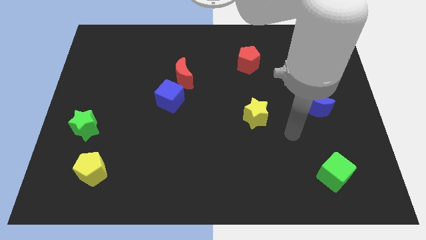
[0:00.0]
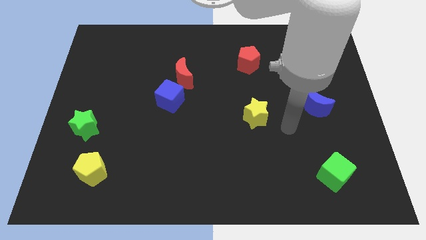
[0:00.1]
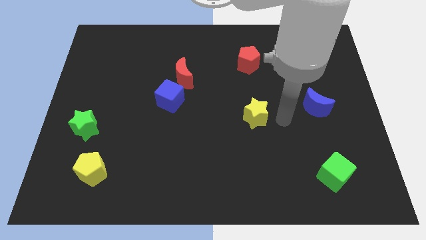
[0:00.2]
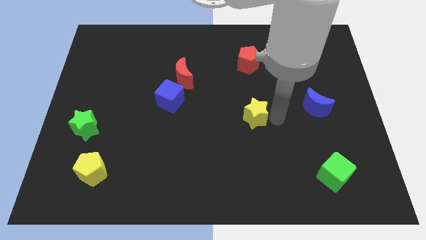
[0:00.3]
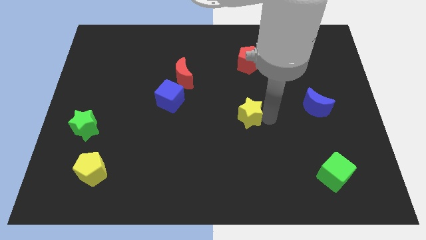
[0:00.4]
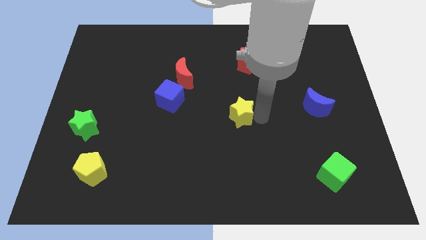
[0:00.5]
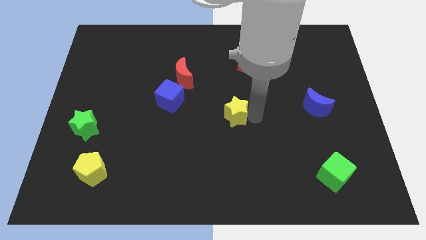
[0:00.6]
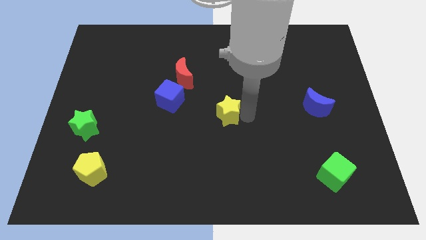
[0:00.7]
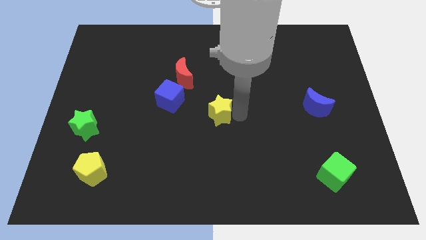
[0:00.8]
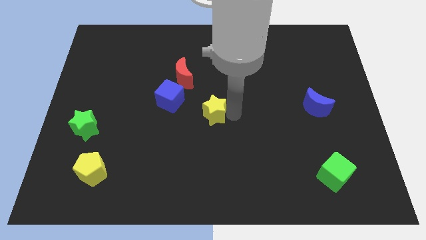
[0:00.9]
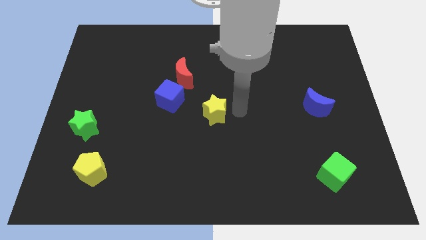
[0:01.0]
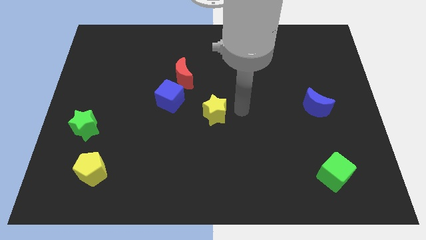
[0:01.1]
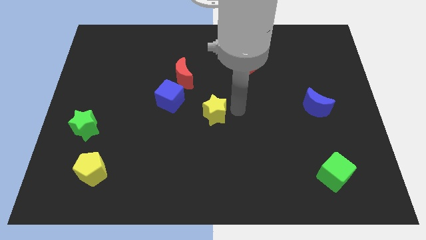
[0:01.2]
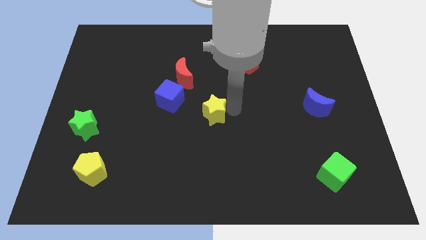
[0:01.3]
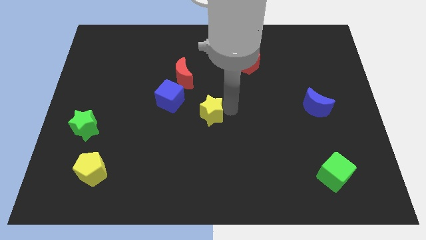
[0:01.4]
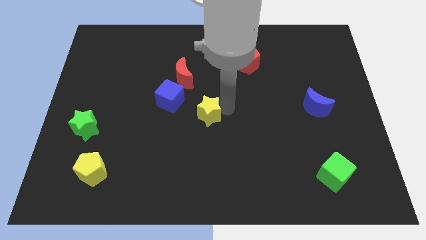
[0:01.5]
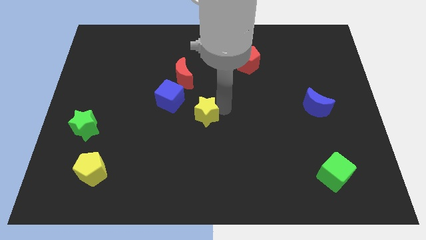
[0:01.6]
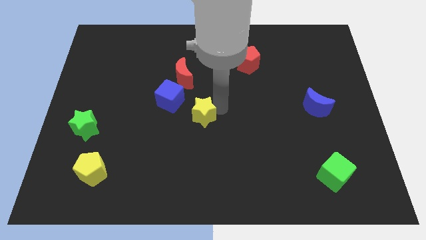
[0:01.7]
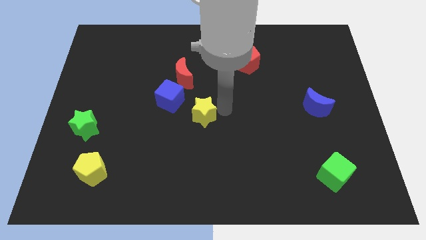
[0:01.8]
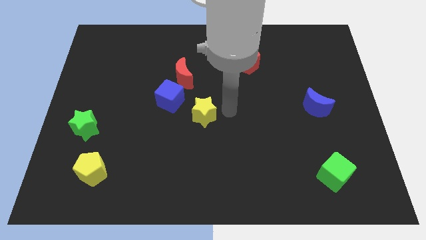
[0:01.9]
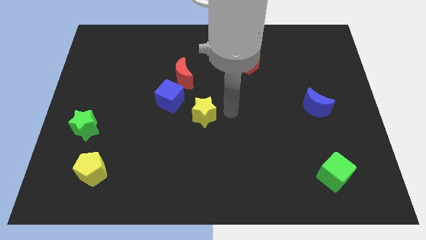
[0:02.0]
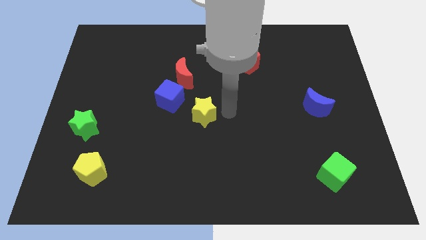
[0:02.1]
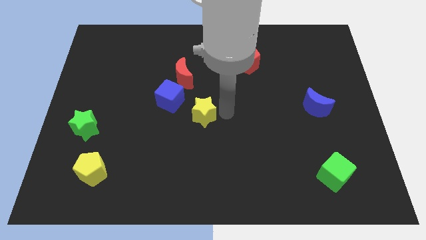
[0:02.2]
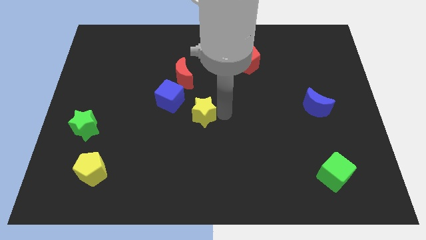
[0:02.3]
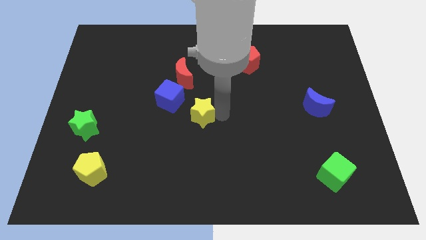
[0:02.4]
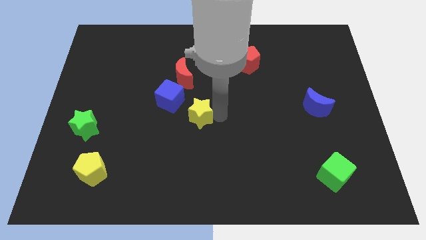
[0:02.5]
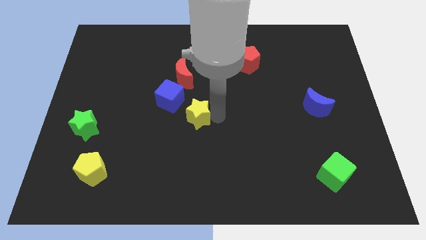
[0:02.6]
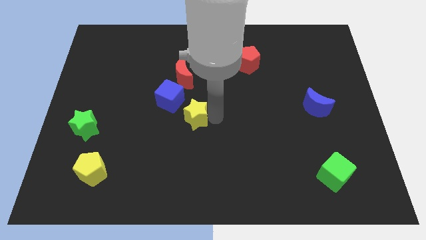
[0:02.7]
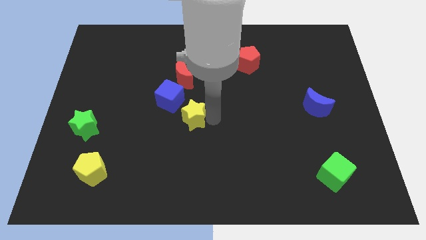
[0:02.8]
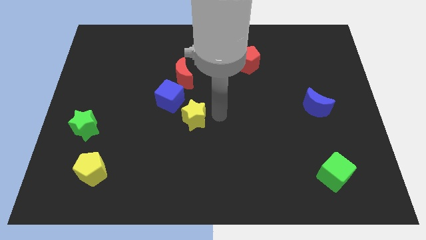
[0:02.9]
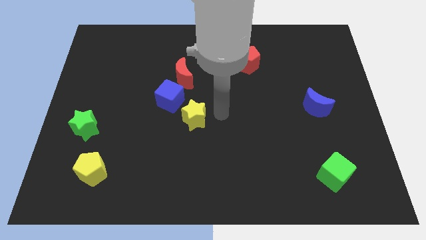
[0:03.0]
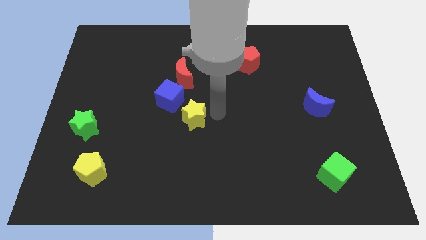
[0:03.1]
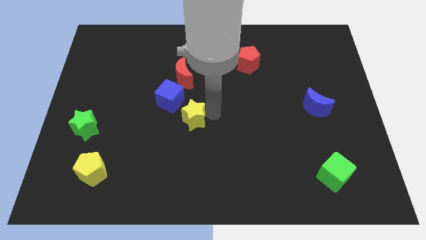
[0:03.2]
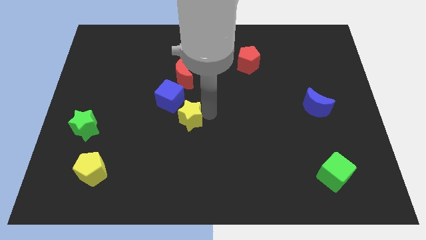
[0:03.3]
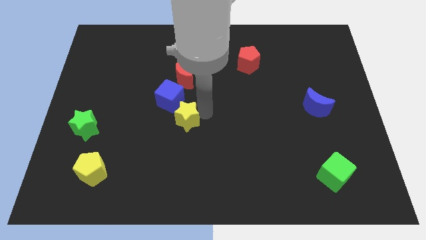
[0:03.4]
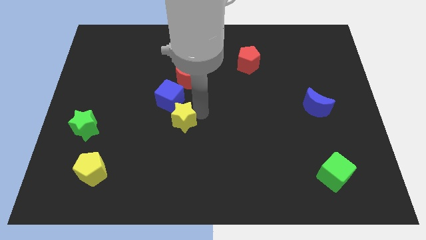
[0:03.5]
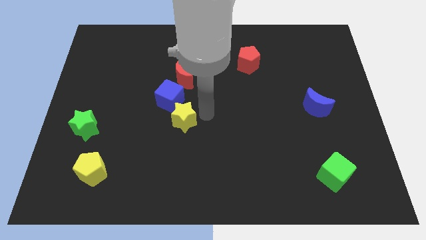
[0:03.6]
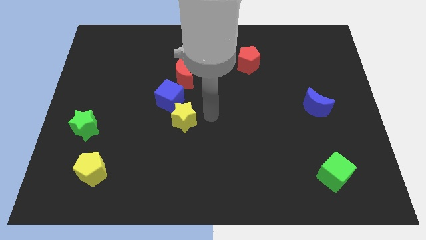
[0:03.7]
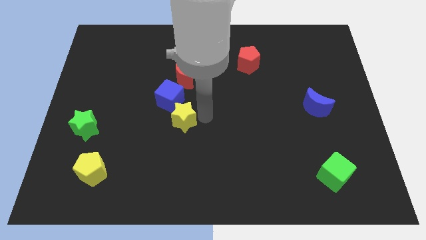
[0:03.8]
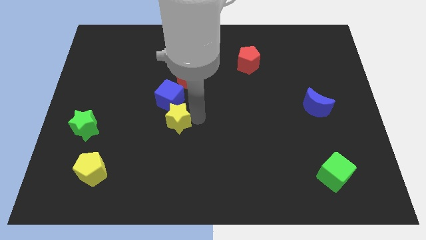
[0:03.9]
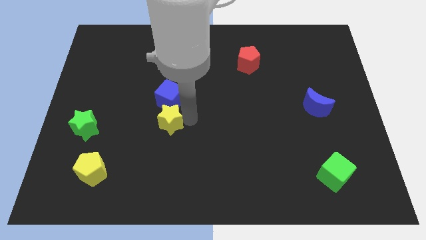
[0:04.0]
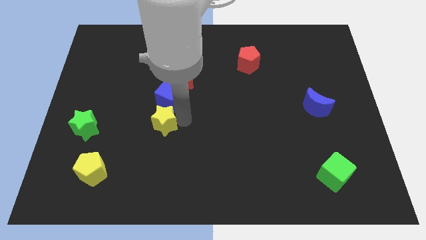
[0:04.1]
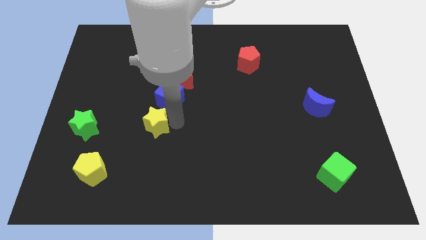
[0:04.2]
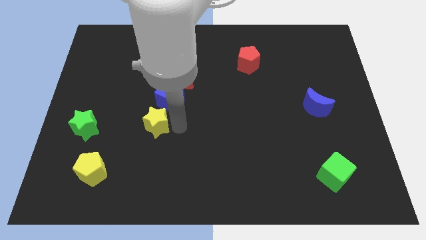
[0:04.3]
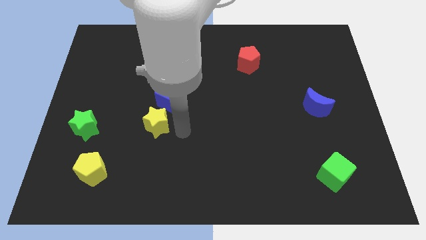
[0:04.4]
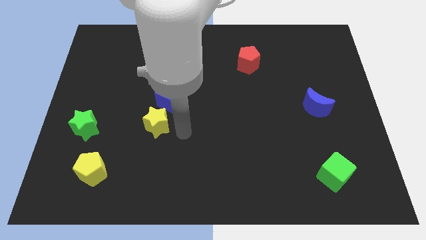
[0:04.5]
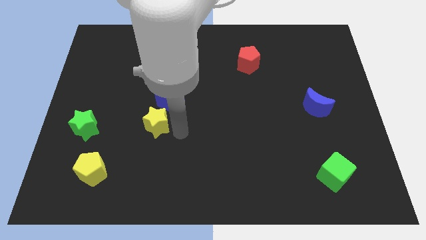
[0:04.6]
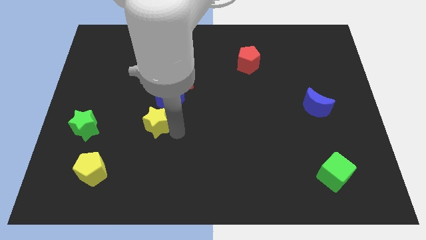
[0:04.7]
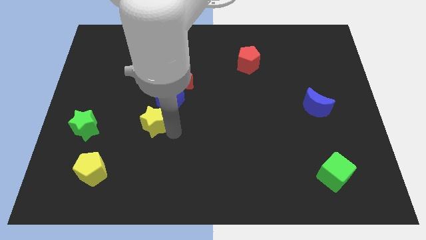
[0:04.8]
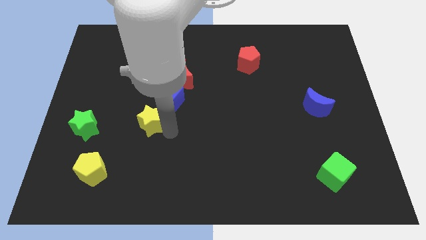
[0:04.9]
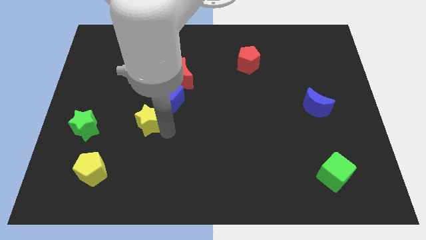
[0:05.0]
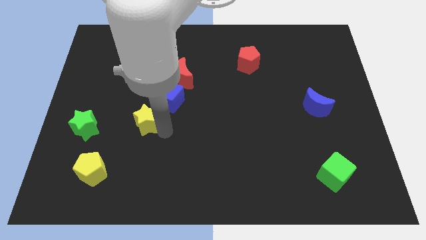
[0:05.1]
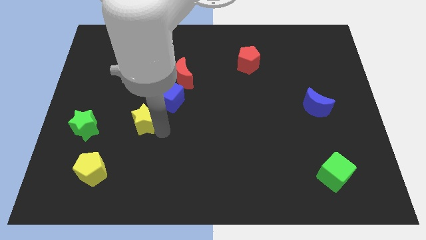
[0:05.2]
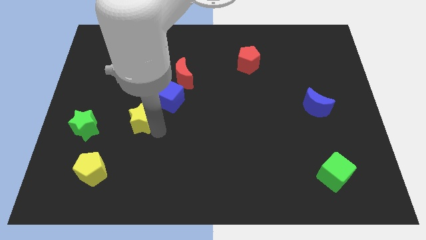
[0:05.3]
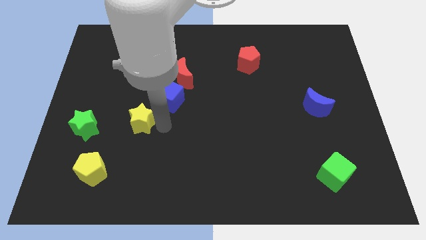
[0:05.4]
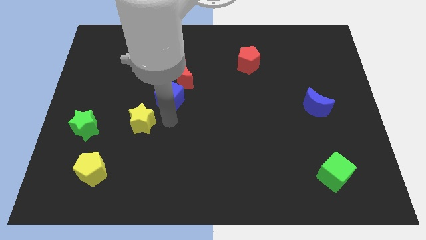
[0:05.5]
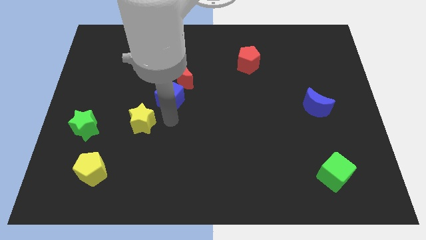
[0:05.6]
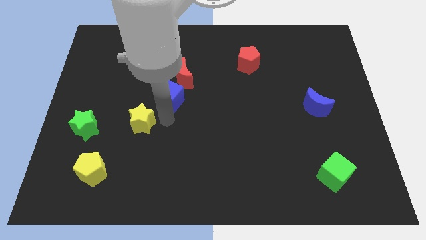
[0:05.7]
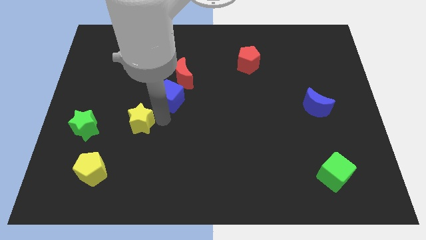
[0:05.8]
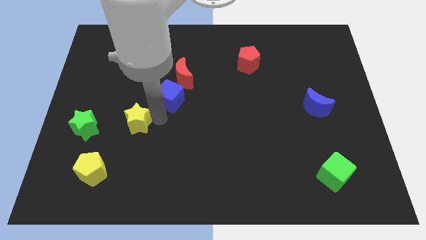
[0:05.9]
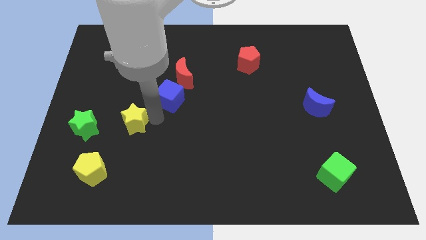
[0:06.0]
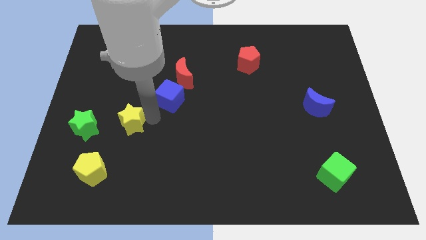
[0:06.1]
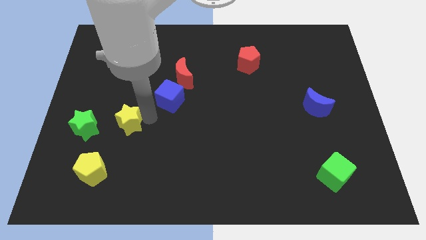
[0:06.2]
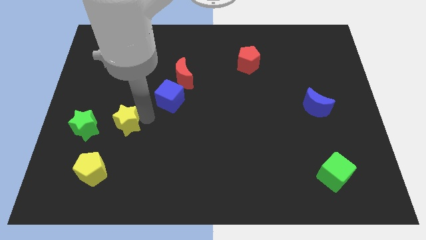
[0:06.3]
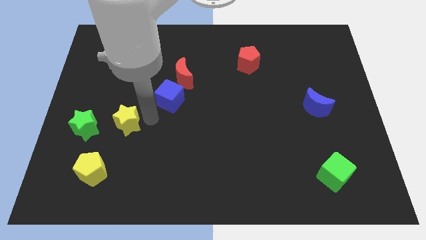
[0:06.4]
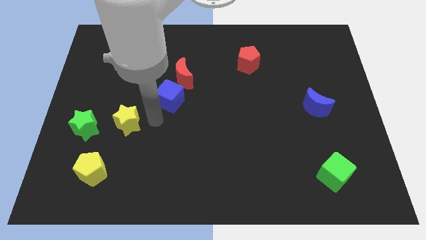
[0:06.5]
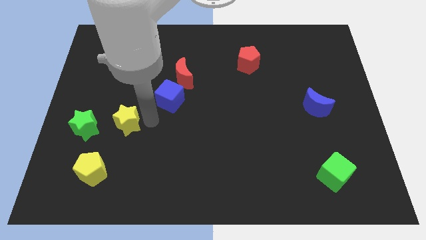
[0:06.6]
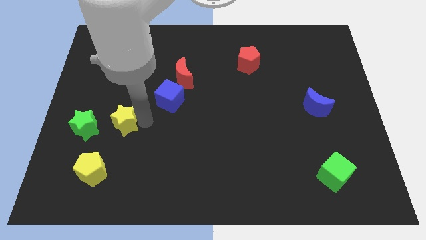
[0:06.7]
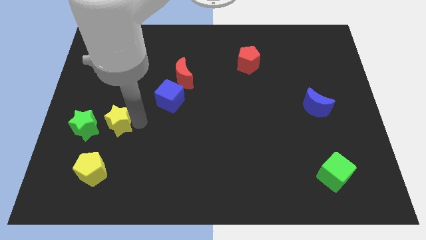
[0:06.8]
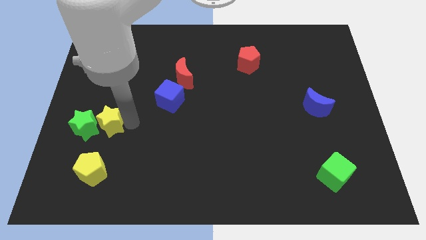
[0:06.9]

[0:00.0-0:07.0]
slide the yellow star next to the green star
